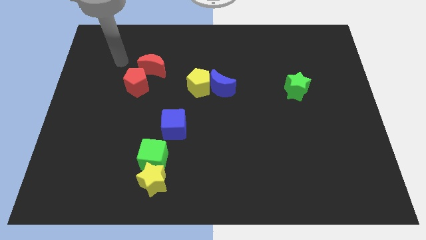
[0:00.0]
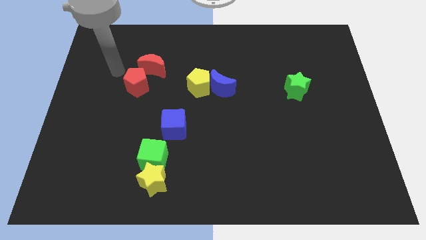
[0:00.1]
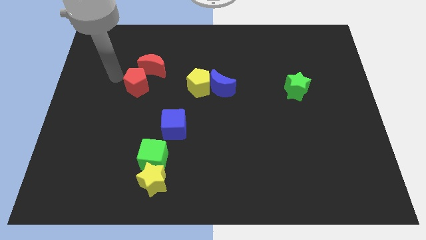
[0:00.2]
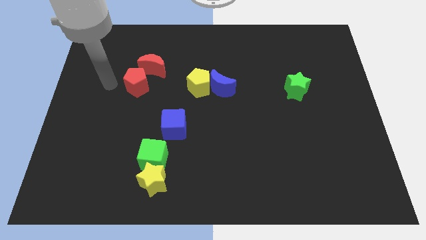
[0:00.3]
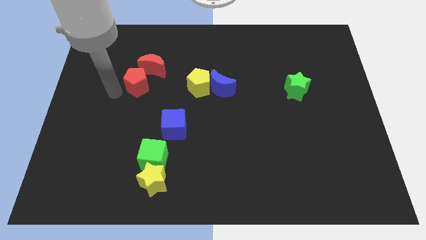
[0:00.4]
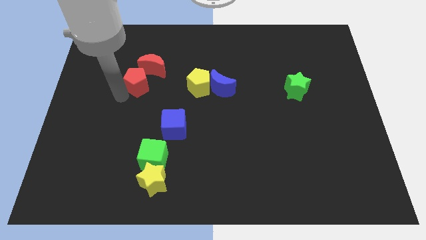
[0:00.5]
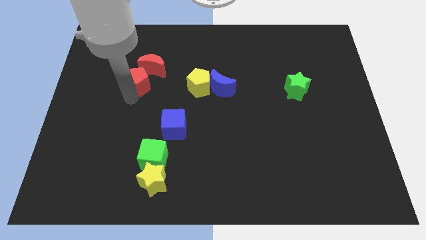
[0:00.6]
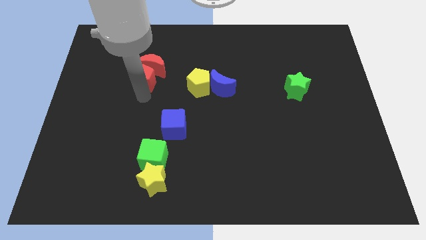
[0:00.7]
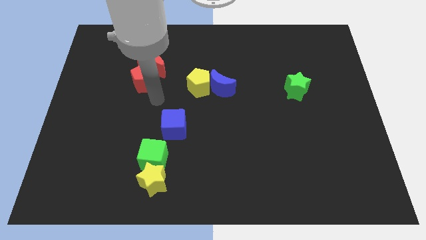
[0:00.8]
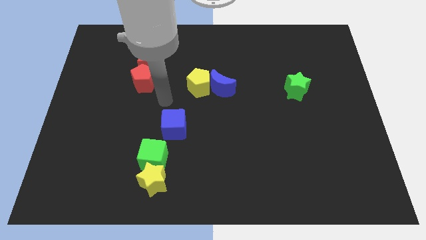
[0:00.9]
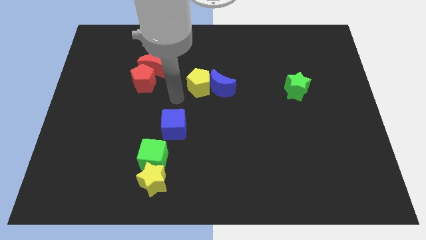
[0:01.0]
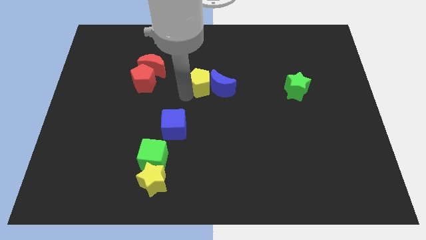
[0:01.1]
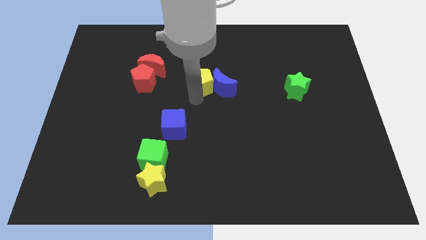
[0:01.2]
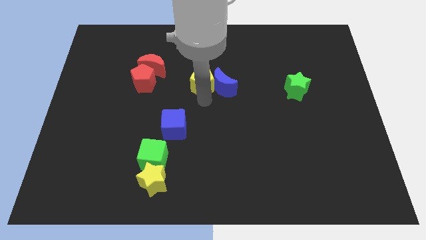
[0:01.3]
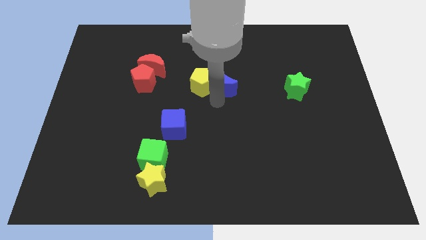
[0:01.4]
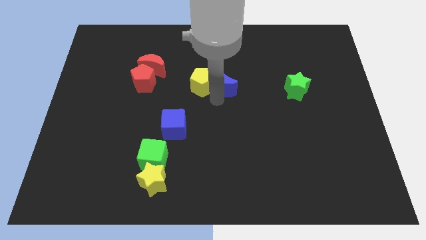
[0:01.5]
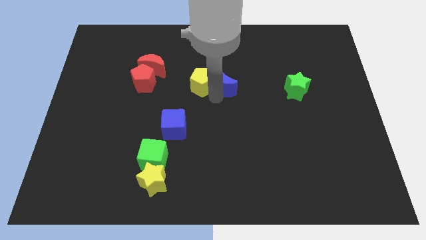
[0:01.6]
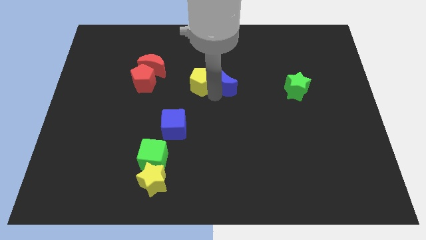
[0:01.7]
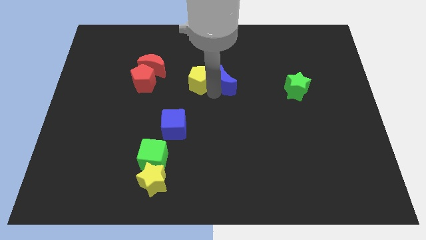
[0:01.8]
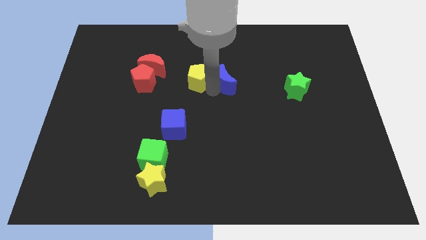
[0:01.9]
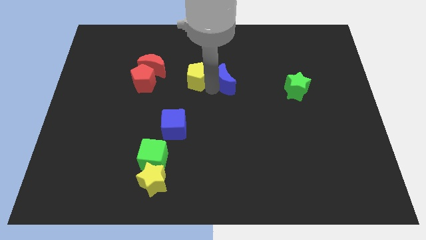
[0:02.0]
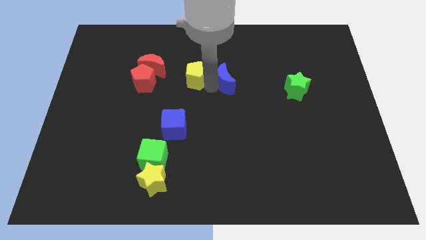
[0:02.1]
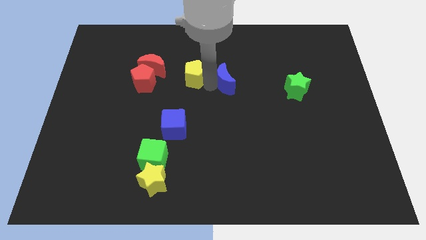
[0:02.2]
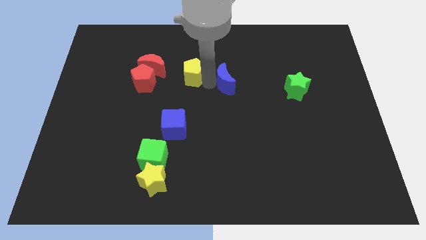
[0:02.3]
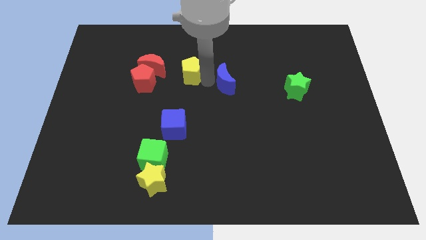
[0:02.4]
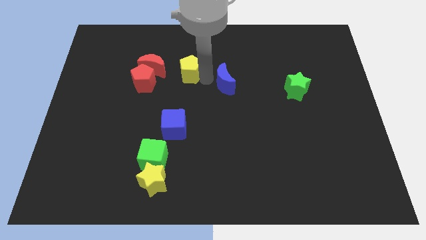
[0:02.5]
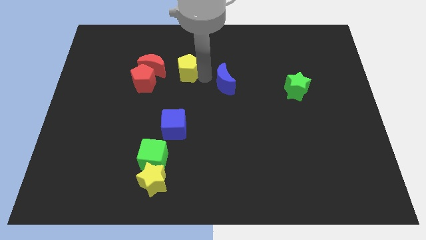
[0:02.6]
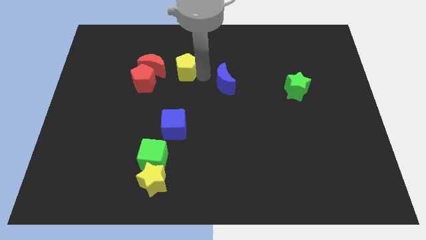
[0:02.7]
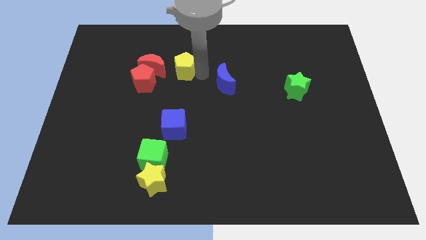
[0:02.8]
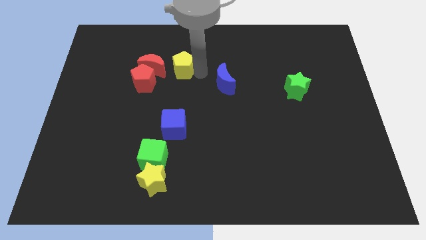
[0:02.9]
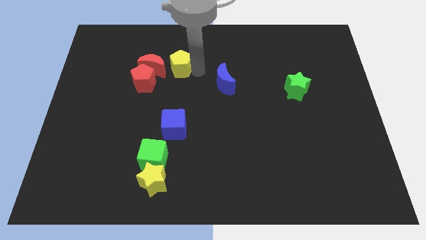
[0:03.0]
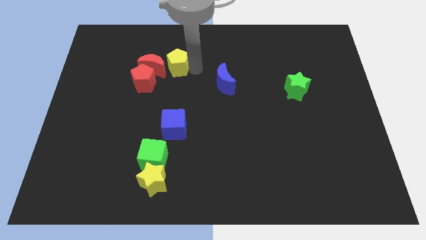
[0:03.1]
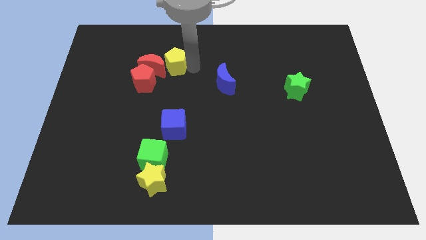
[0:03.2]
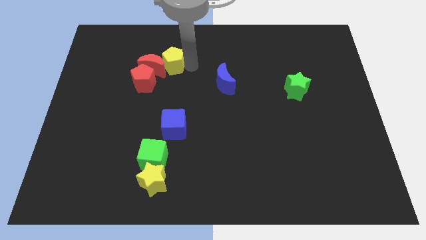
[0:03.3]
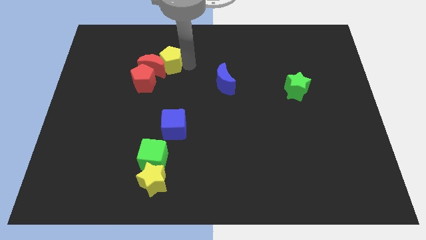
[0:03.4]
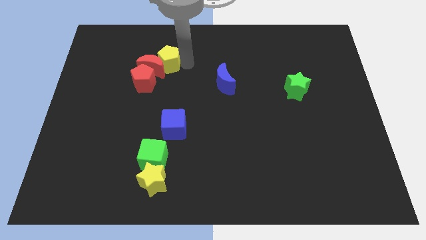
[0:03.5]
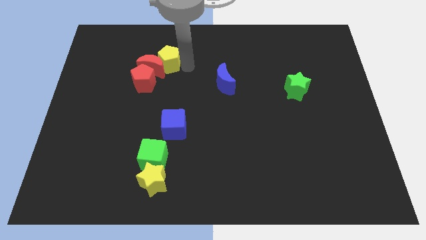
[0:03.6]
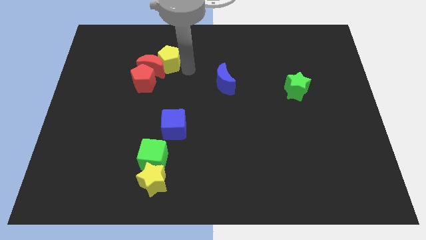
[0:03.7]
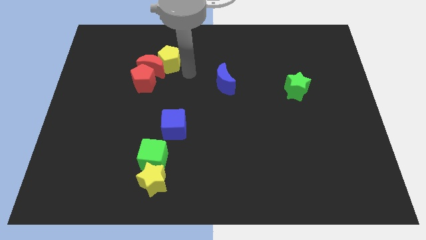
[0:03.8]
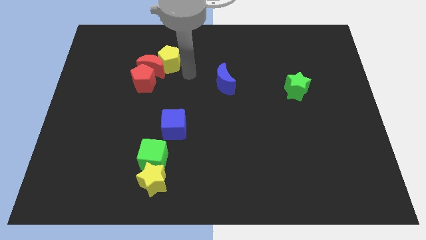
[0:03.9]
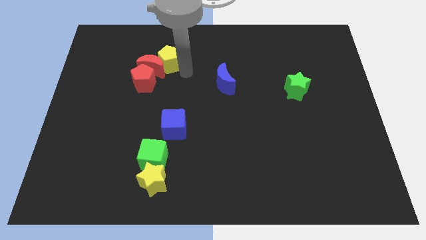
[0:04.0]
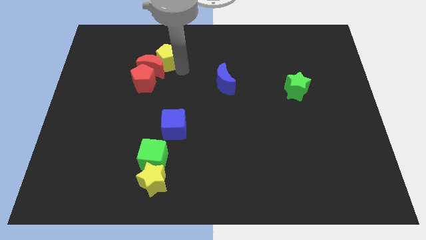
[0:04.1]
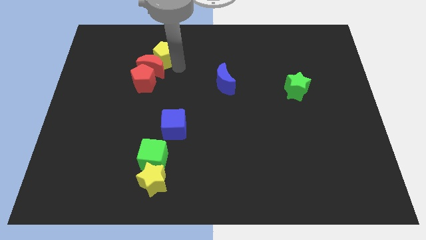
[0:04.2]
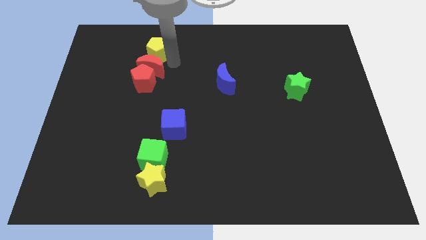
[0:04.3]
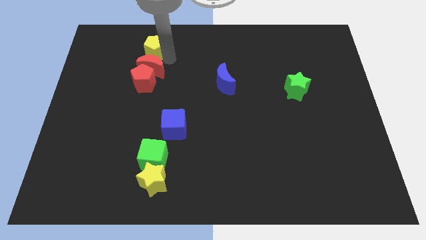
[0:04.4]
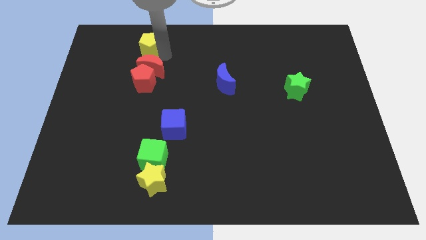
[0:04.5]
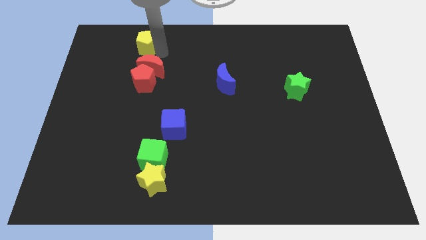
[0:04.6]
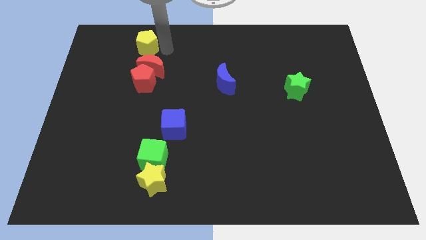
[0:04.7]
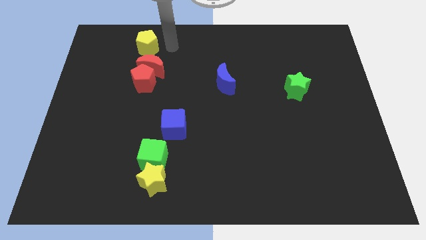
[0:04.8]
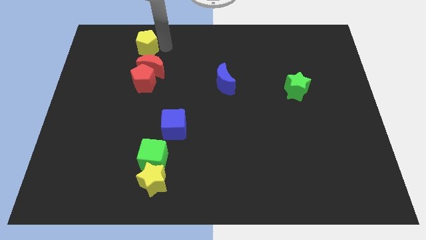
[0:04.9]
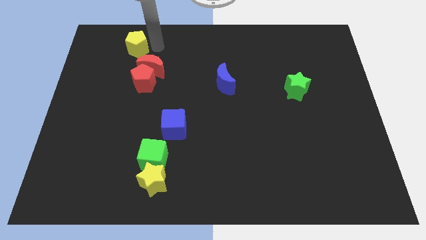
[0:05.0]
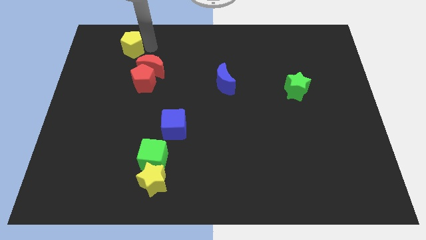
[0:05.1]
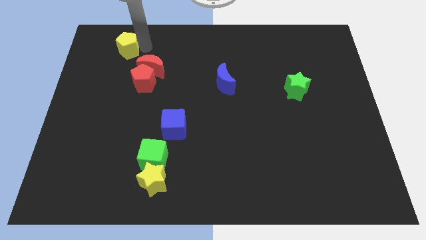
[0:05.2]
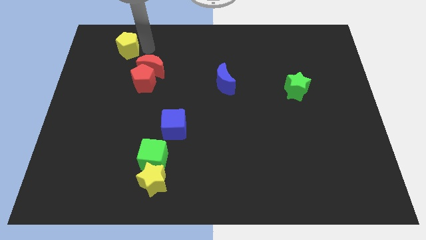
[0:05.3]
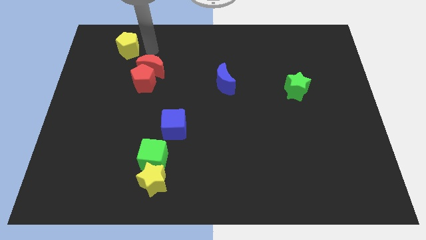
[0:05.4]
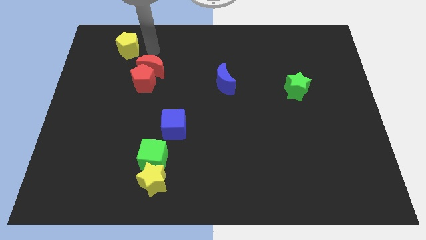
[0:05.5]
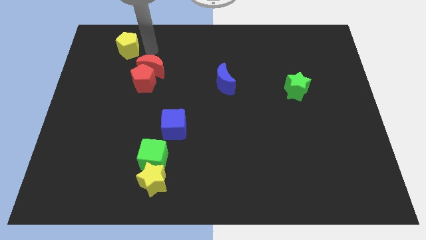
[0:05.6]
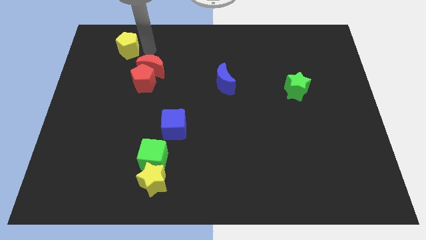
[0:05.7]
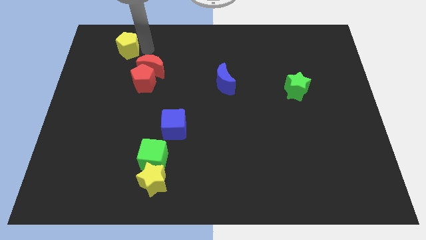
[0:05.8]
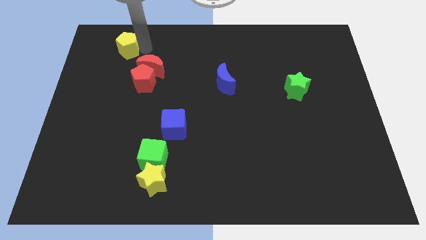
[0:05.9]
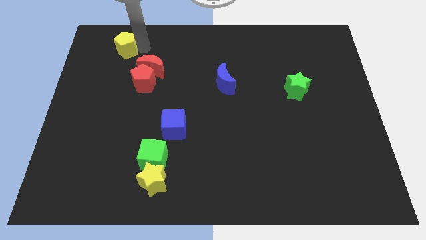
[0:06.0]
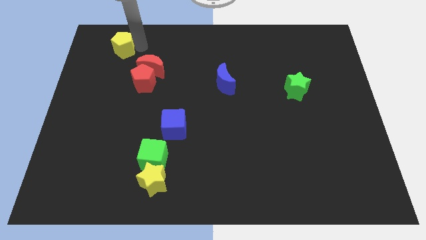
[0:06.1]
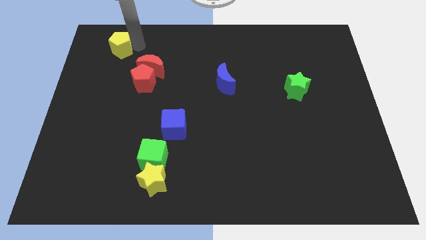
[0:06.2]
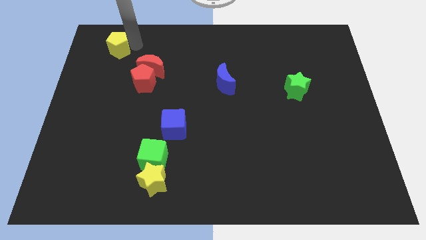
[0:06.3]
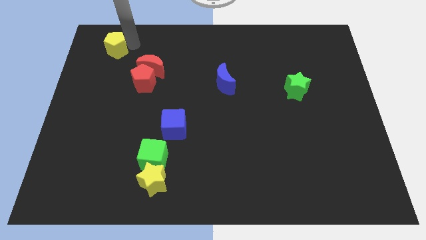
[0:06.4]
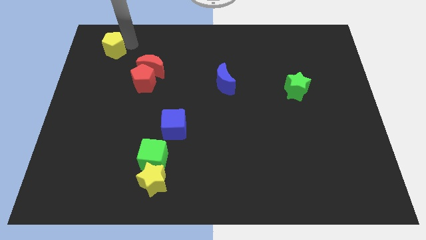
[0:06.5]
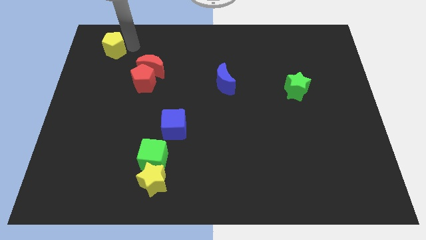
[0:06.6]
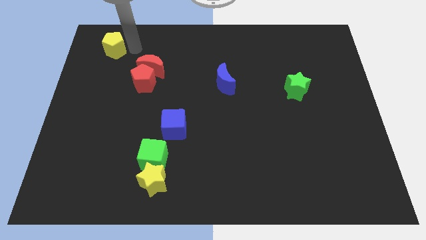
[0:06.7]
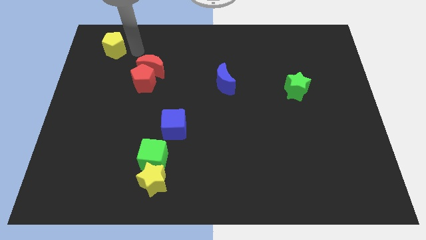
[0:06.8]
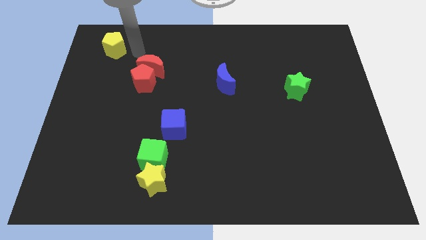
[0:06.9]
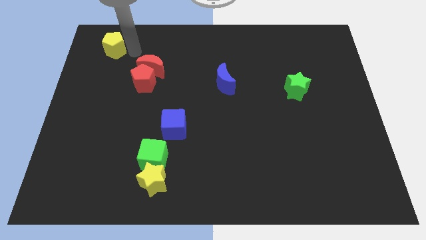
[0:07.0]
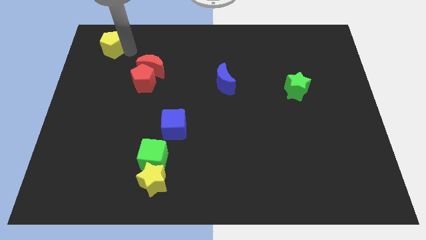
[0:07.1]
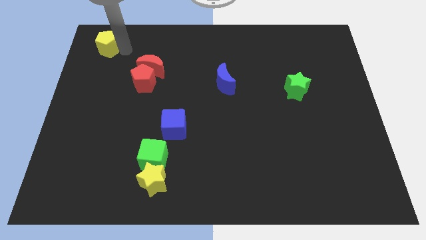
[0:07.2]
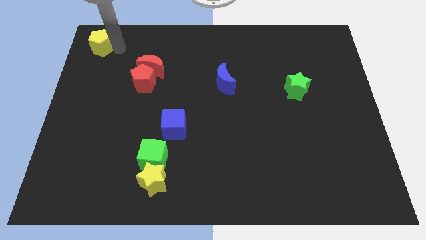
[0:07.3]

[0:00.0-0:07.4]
move the yellow pentagon to the upper left corner
